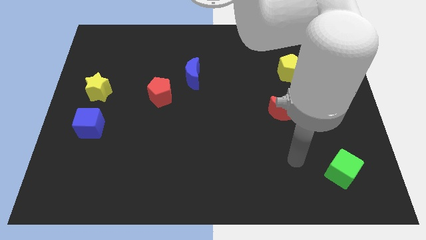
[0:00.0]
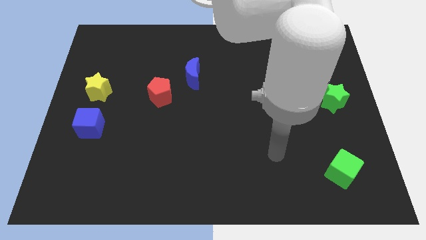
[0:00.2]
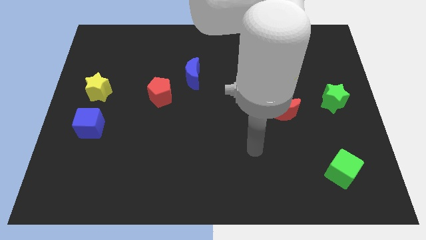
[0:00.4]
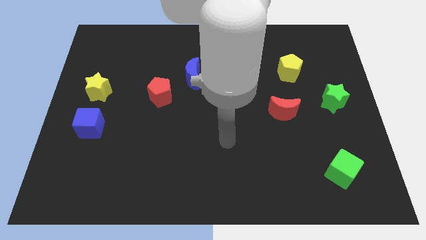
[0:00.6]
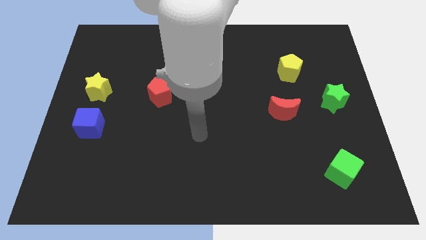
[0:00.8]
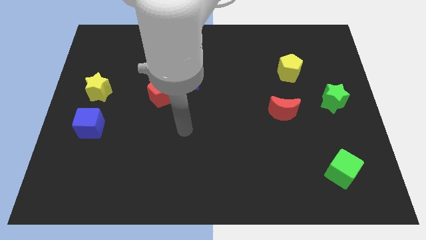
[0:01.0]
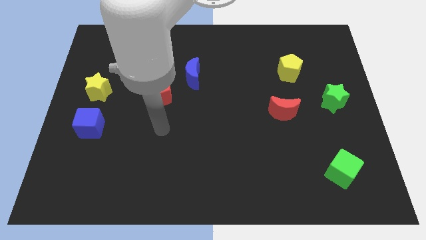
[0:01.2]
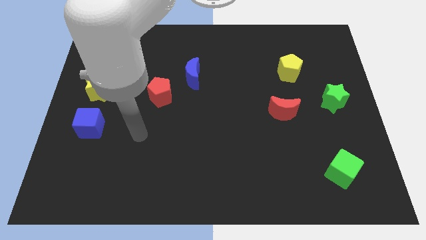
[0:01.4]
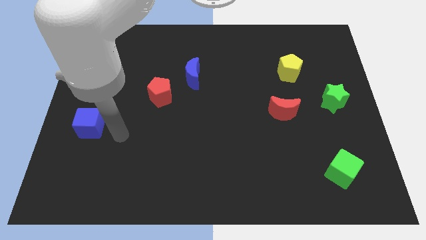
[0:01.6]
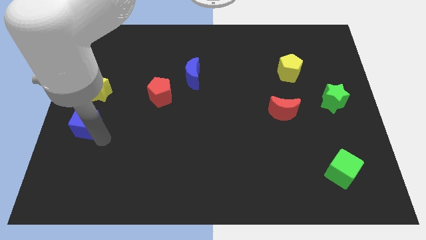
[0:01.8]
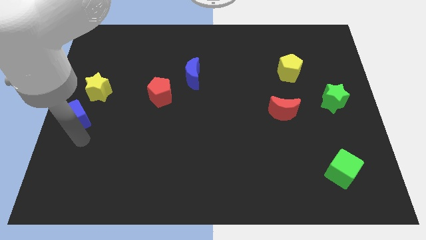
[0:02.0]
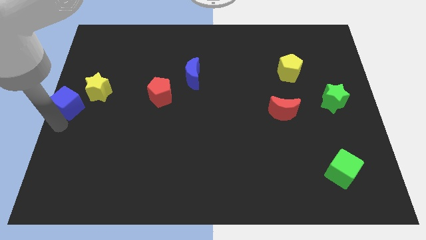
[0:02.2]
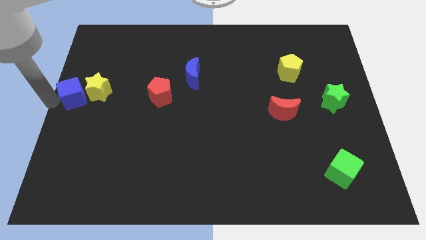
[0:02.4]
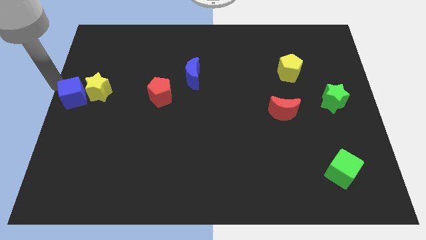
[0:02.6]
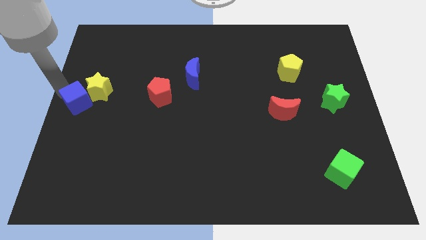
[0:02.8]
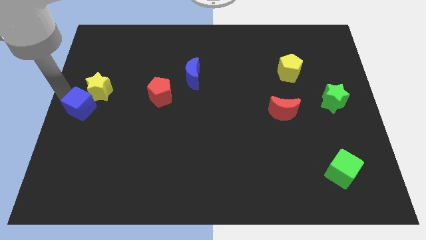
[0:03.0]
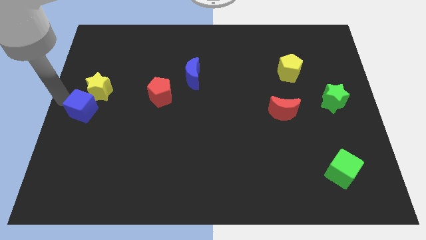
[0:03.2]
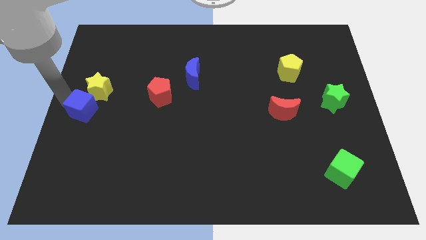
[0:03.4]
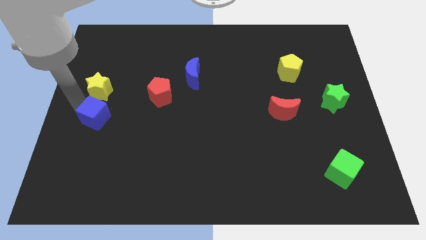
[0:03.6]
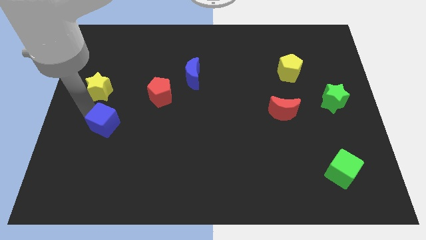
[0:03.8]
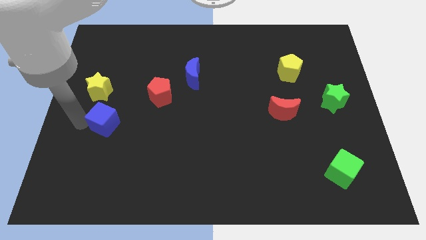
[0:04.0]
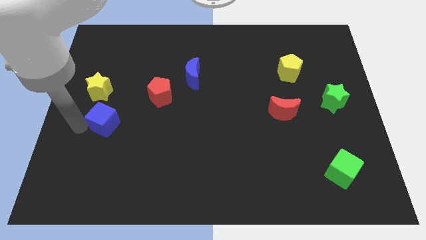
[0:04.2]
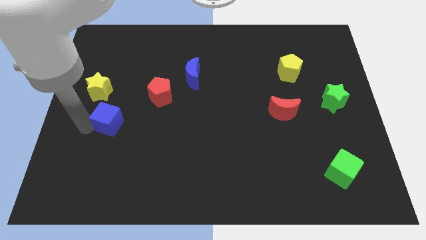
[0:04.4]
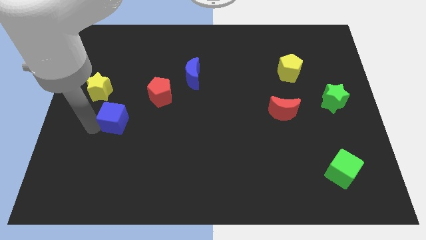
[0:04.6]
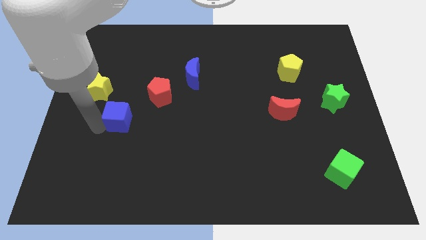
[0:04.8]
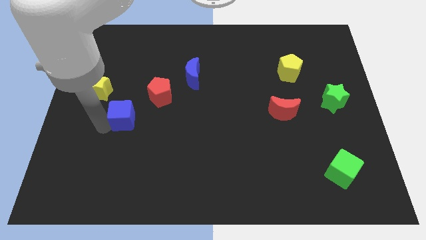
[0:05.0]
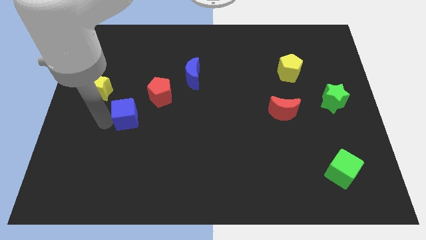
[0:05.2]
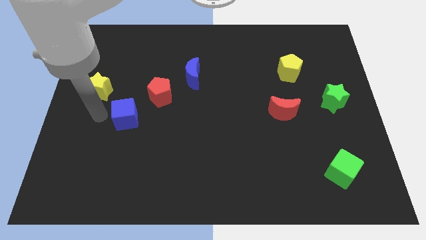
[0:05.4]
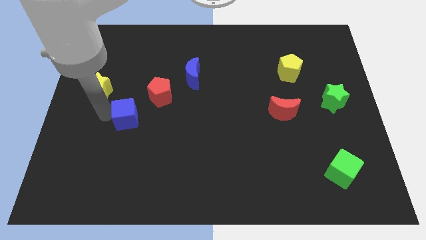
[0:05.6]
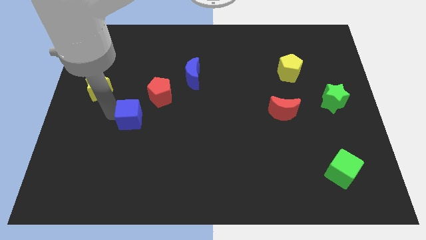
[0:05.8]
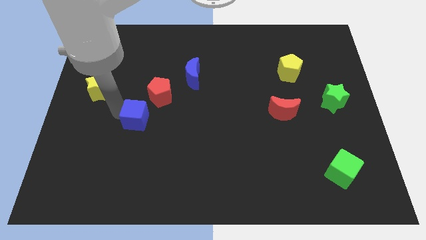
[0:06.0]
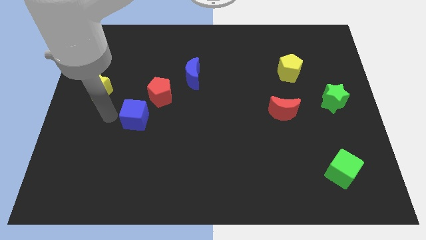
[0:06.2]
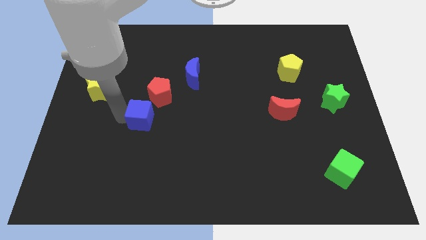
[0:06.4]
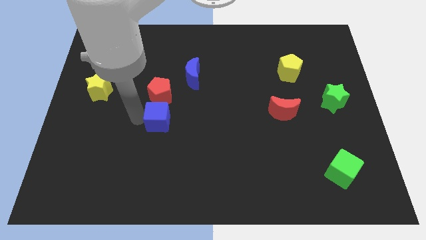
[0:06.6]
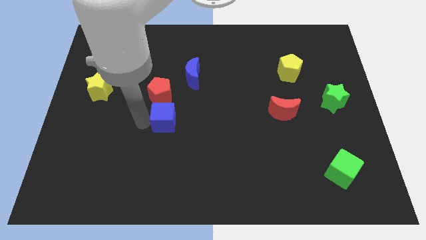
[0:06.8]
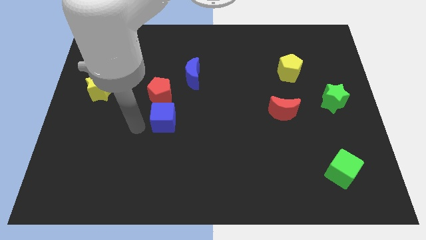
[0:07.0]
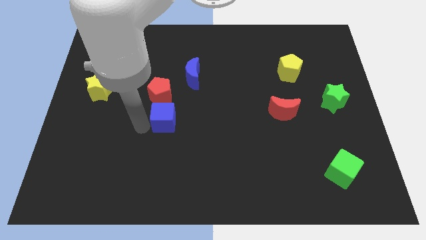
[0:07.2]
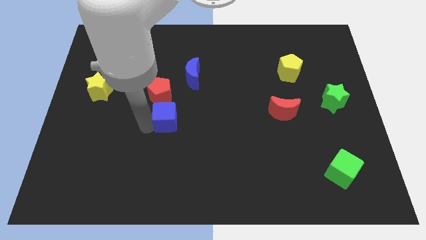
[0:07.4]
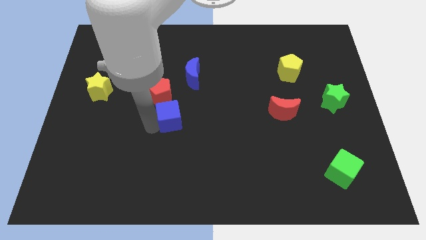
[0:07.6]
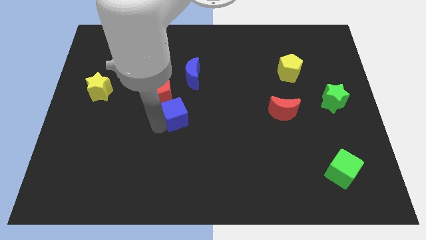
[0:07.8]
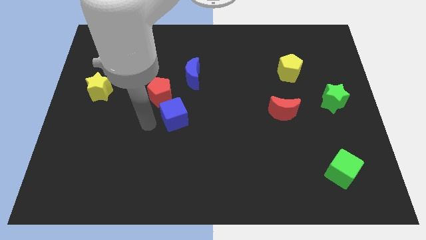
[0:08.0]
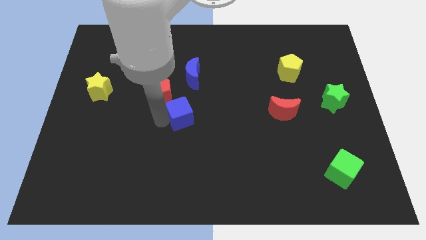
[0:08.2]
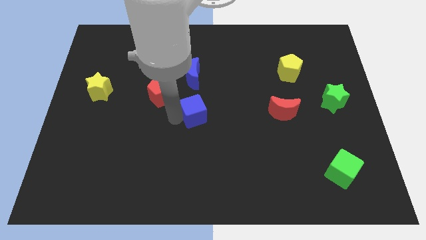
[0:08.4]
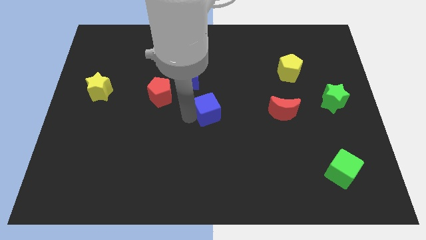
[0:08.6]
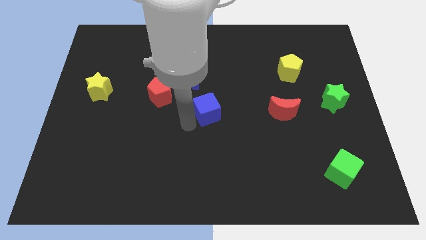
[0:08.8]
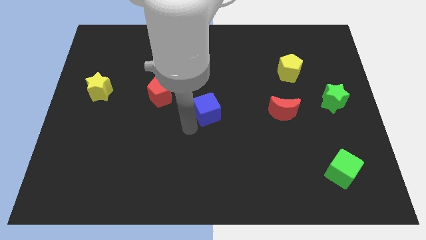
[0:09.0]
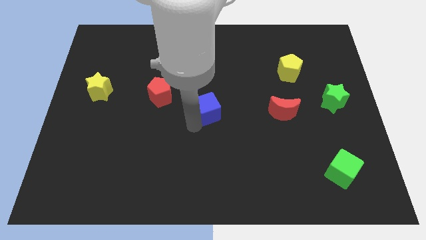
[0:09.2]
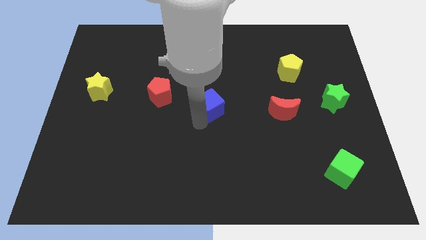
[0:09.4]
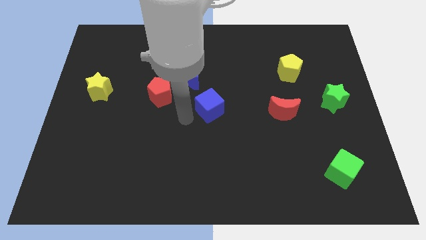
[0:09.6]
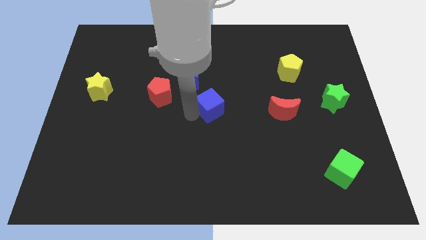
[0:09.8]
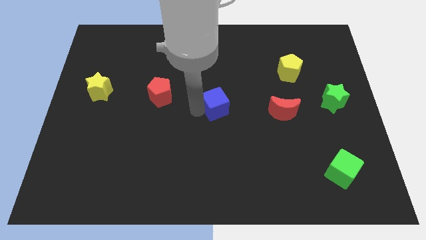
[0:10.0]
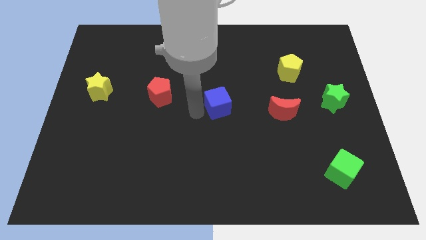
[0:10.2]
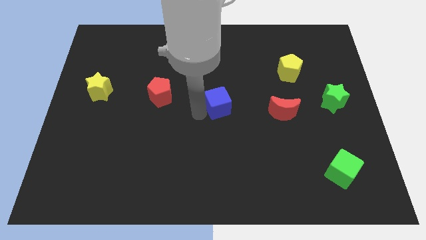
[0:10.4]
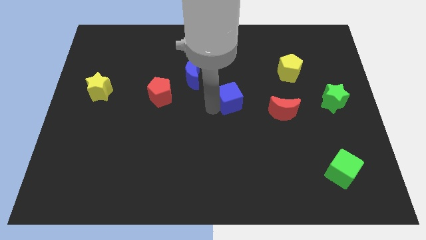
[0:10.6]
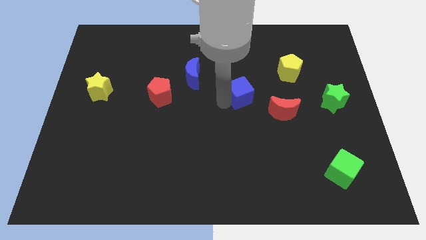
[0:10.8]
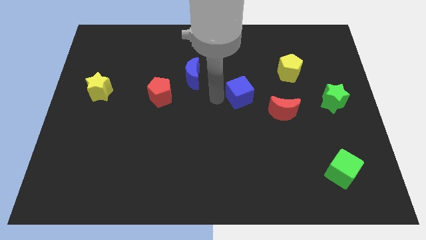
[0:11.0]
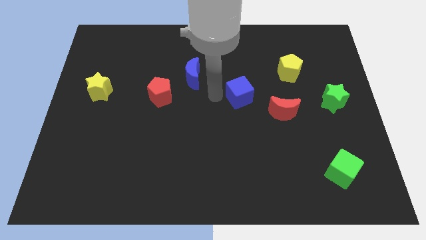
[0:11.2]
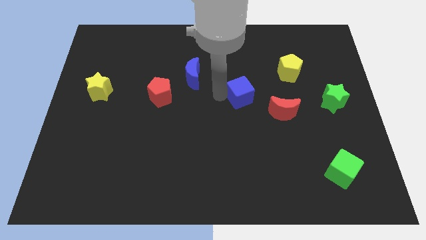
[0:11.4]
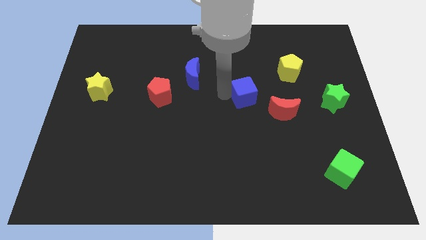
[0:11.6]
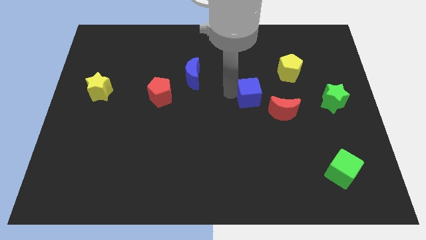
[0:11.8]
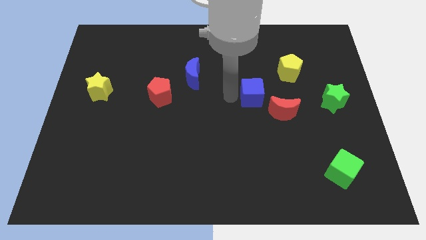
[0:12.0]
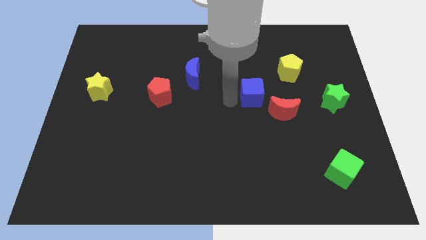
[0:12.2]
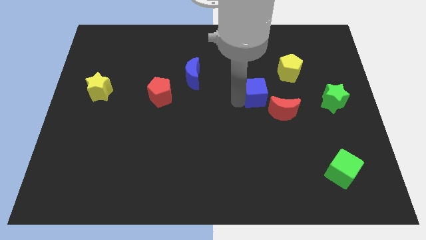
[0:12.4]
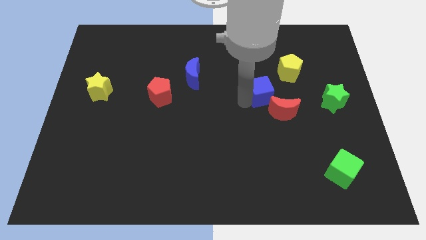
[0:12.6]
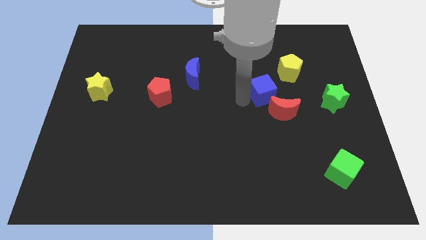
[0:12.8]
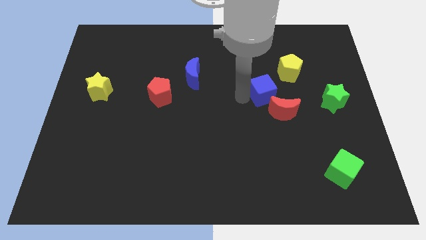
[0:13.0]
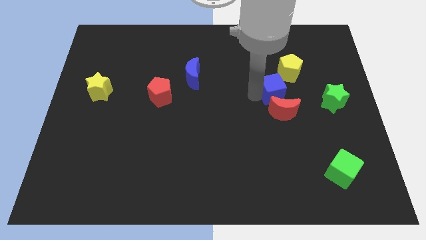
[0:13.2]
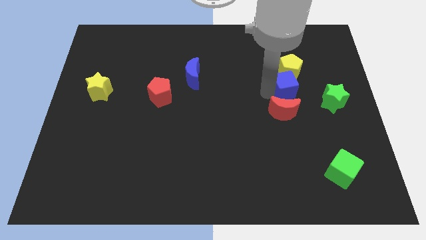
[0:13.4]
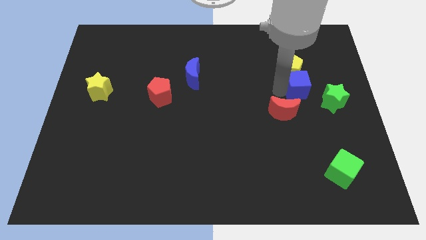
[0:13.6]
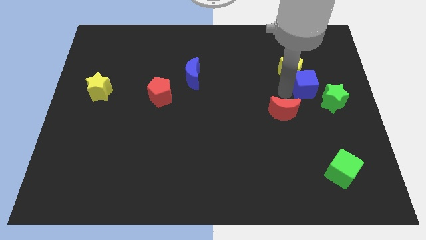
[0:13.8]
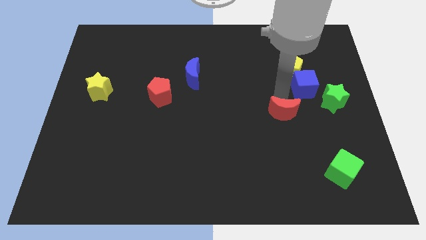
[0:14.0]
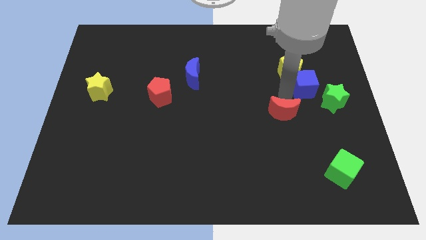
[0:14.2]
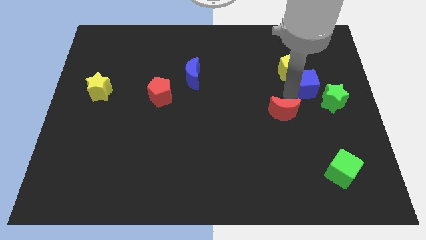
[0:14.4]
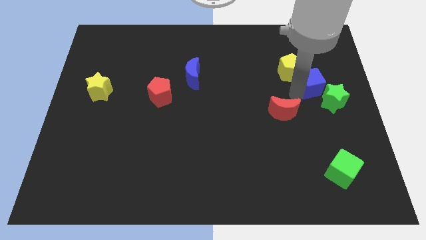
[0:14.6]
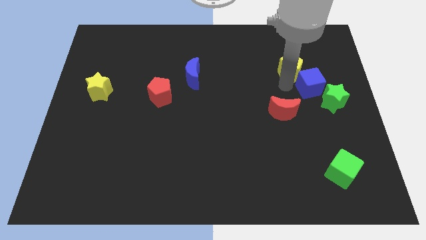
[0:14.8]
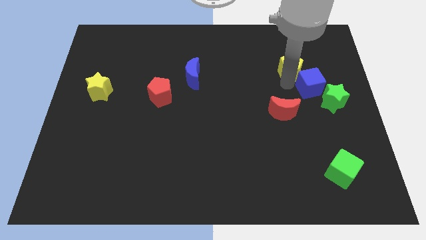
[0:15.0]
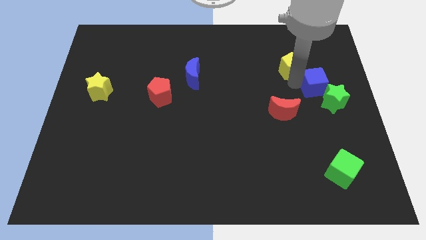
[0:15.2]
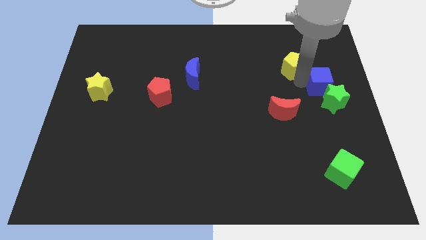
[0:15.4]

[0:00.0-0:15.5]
put the blue cube to the right side
